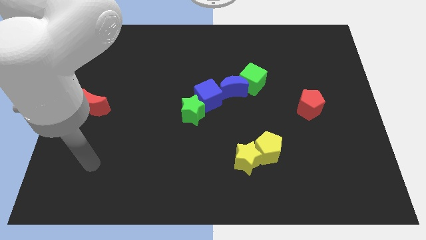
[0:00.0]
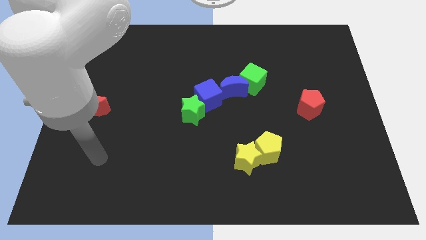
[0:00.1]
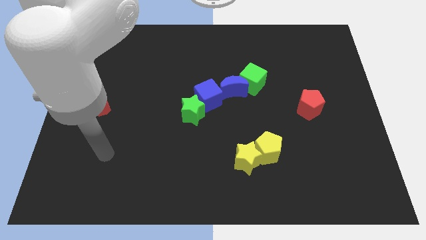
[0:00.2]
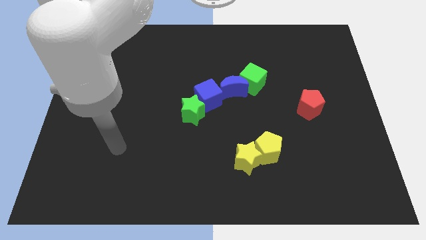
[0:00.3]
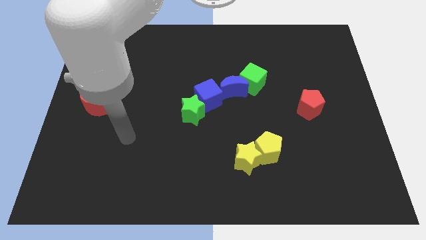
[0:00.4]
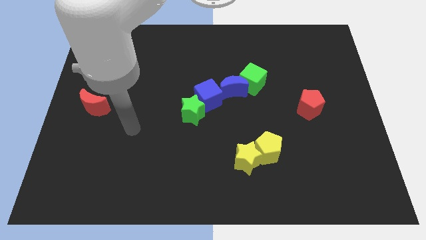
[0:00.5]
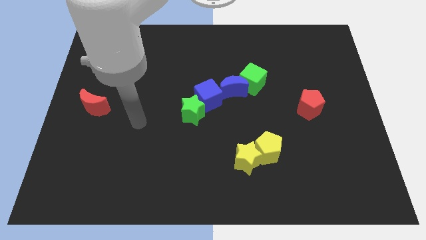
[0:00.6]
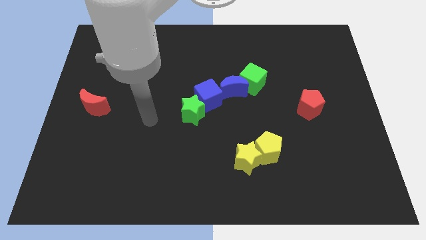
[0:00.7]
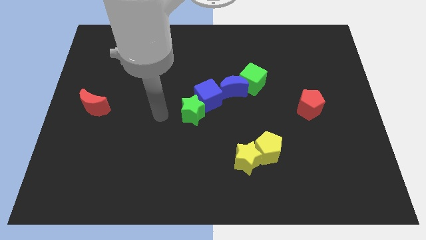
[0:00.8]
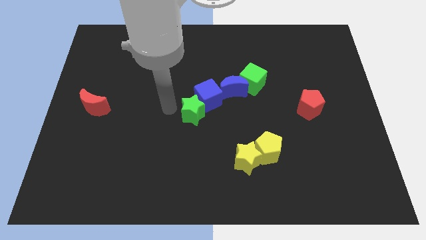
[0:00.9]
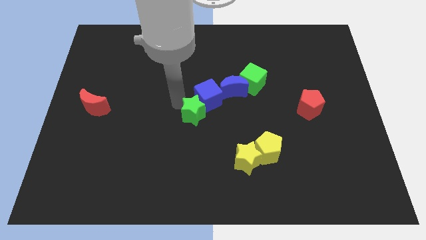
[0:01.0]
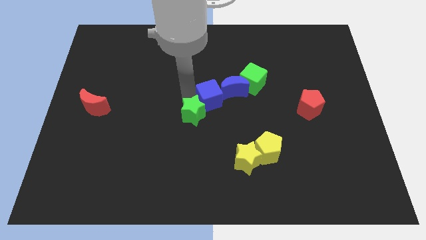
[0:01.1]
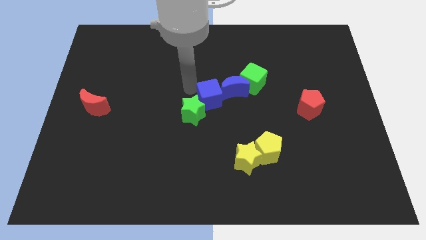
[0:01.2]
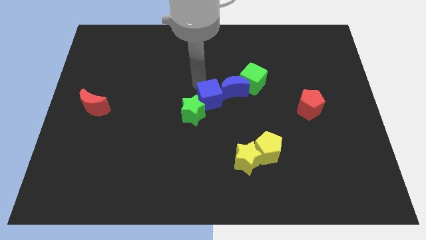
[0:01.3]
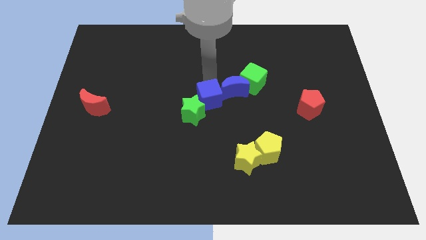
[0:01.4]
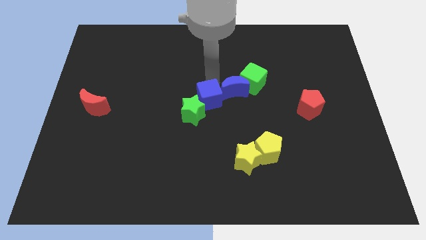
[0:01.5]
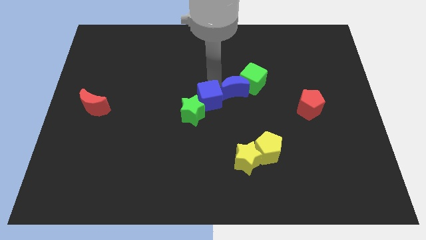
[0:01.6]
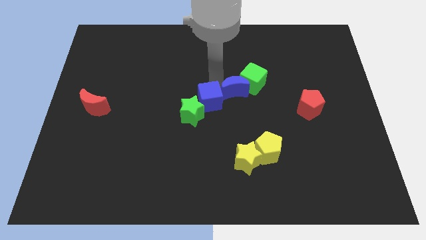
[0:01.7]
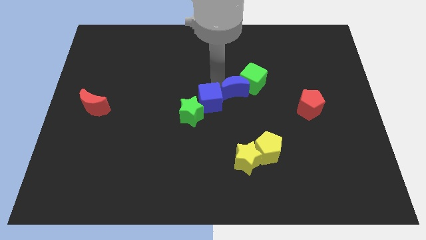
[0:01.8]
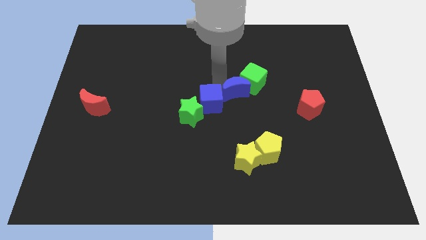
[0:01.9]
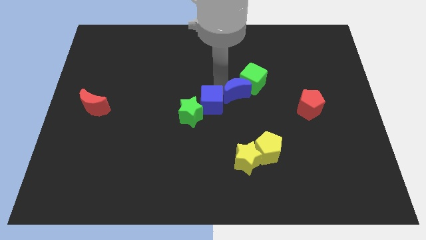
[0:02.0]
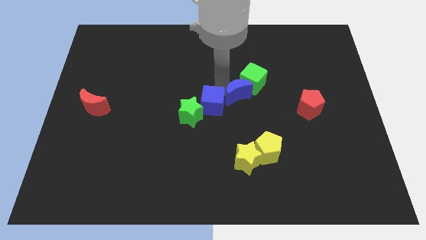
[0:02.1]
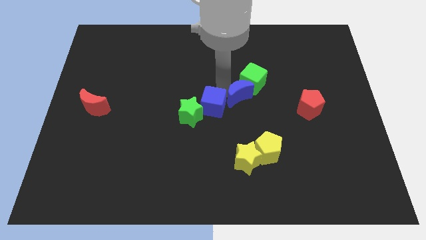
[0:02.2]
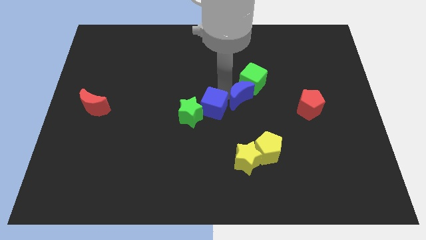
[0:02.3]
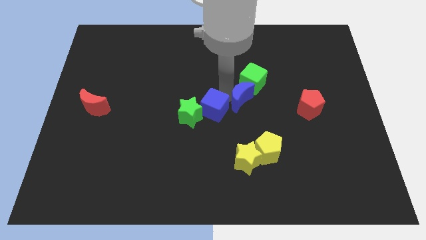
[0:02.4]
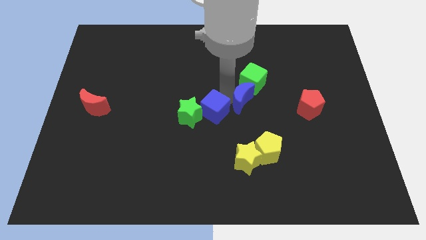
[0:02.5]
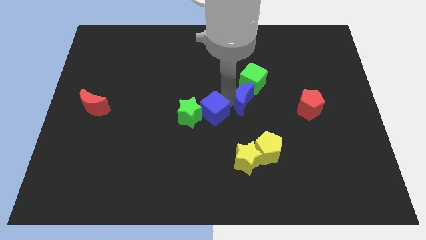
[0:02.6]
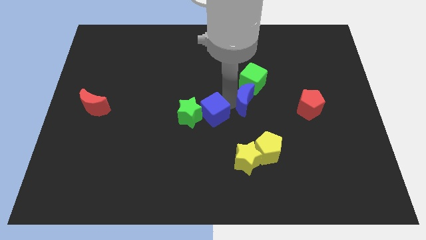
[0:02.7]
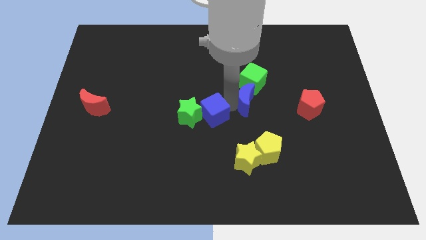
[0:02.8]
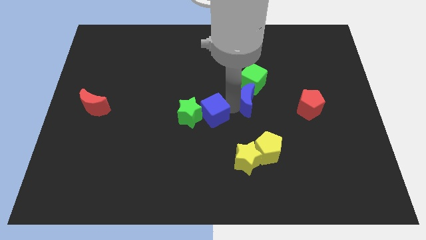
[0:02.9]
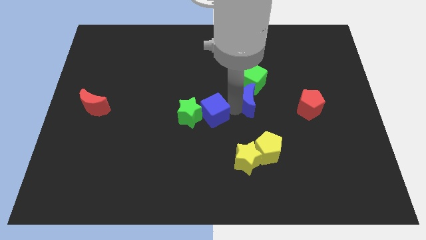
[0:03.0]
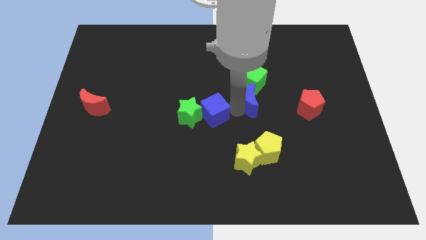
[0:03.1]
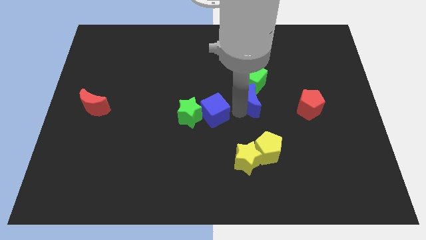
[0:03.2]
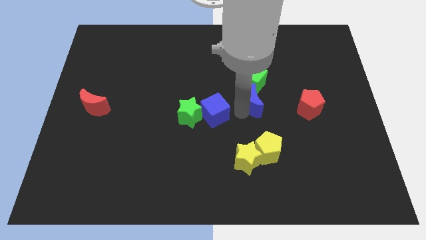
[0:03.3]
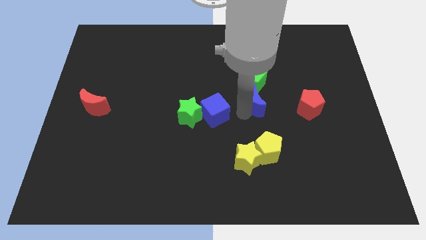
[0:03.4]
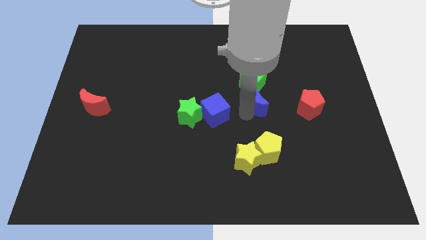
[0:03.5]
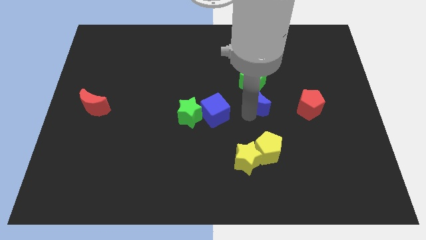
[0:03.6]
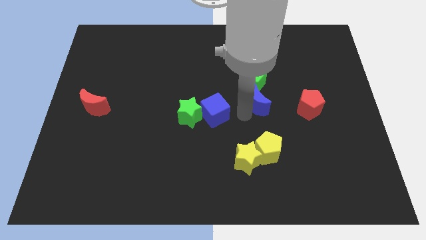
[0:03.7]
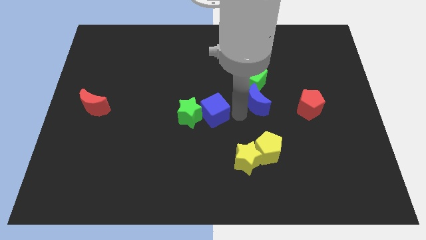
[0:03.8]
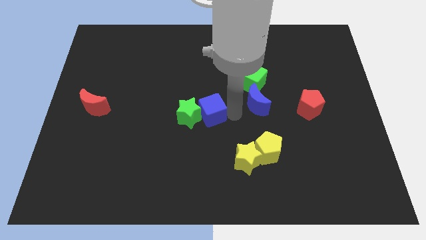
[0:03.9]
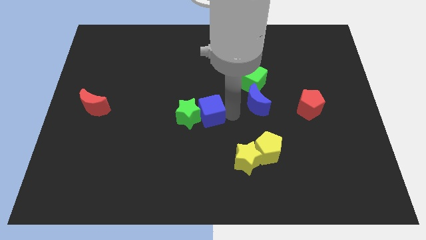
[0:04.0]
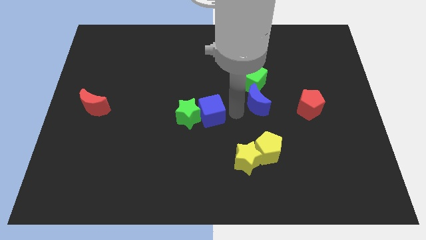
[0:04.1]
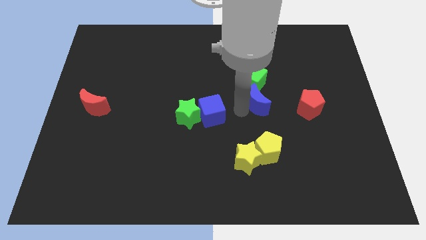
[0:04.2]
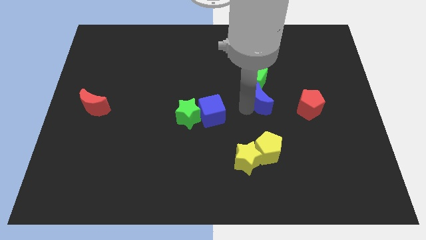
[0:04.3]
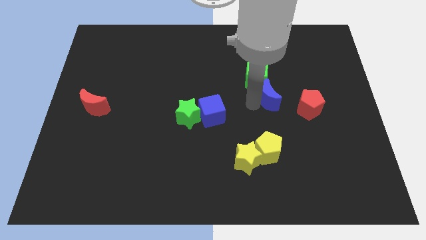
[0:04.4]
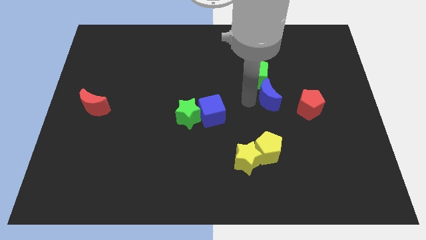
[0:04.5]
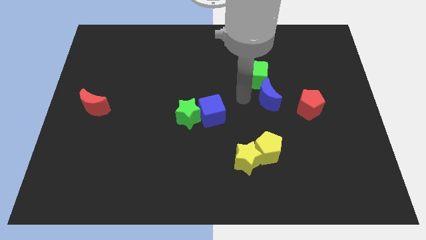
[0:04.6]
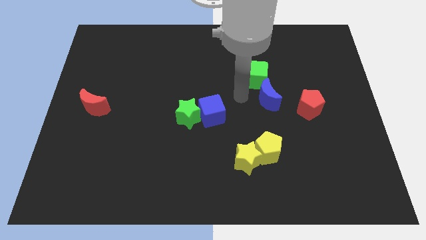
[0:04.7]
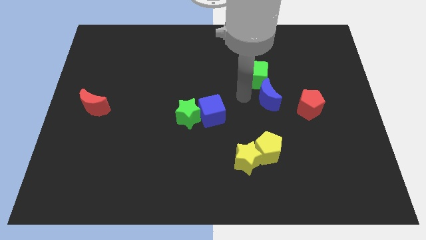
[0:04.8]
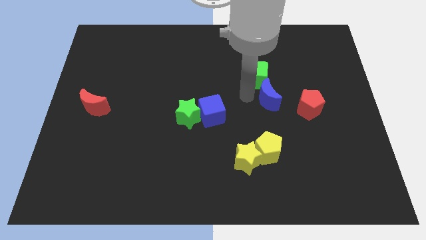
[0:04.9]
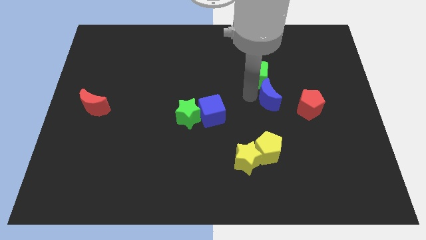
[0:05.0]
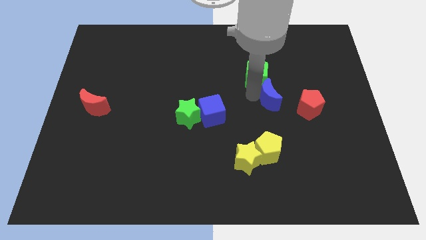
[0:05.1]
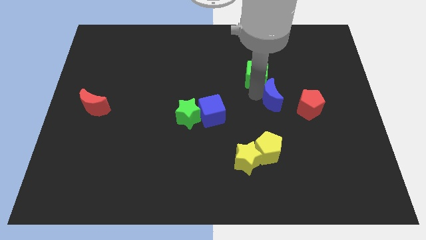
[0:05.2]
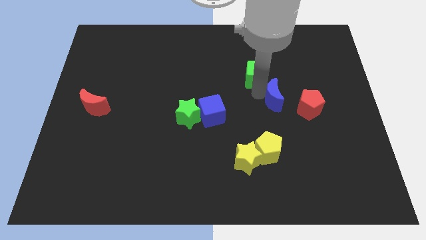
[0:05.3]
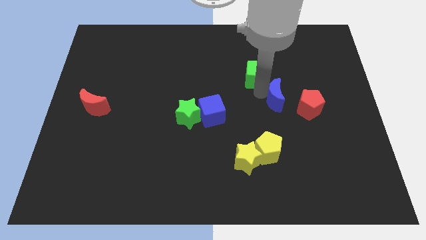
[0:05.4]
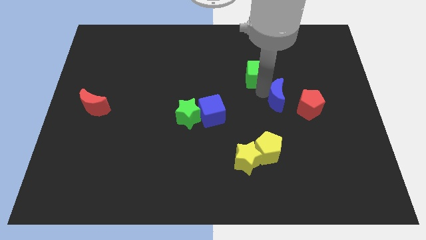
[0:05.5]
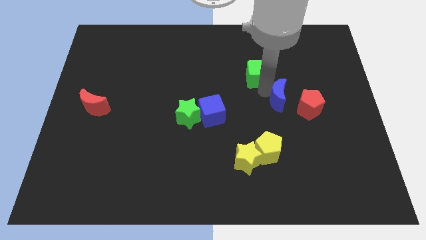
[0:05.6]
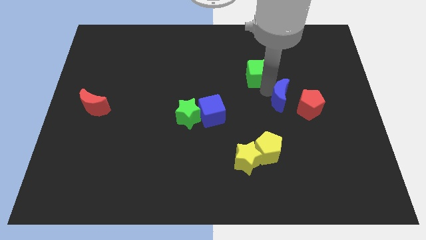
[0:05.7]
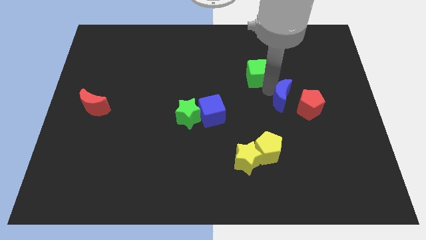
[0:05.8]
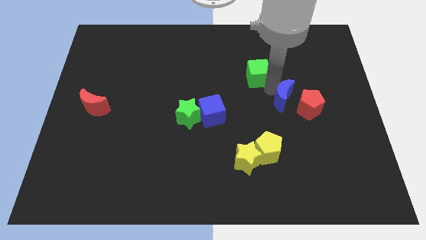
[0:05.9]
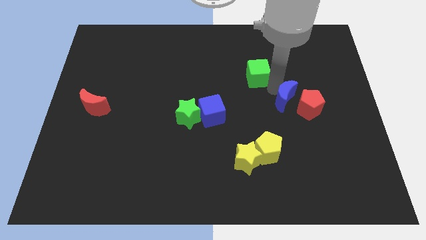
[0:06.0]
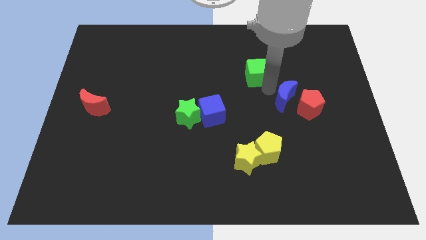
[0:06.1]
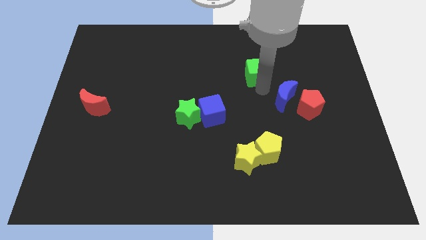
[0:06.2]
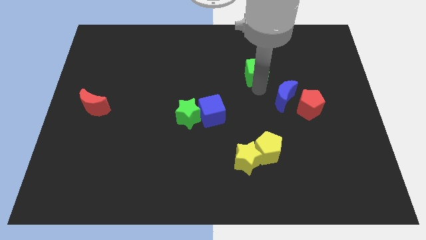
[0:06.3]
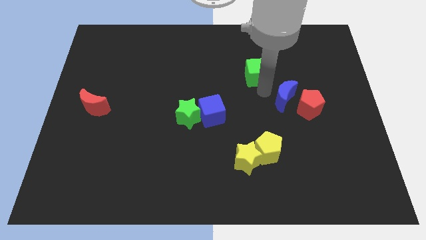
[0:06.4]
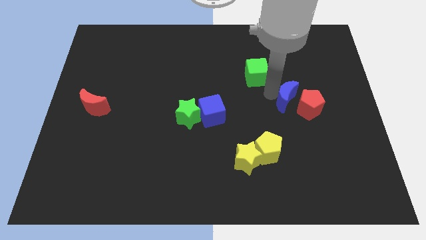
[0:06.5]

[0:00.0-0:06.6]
slide the blue moon close to the red pentagon

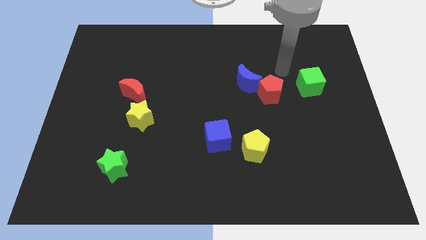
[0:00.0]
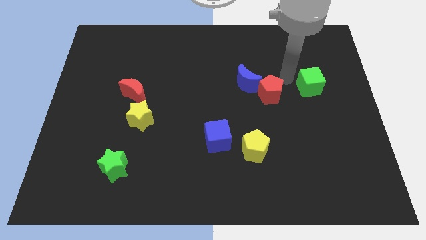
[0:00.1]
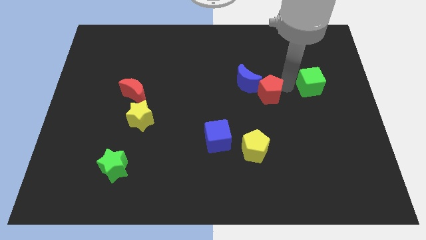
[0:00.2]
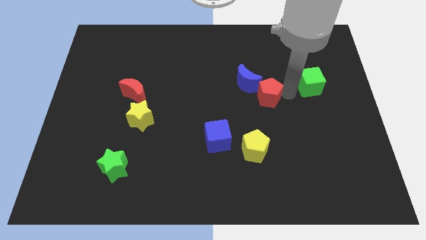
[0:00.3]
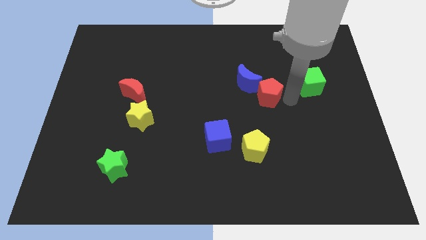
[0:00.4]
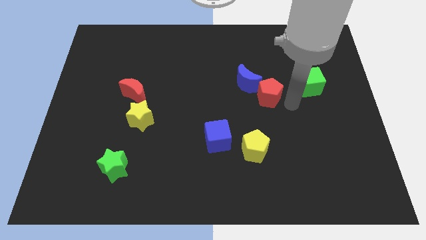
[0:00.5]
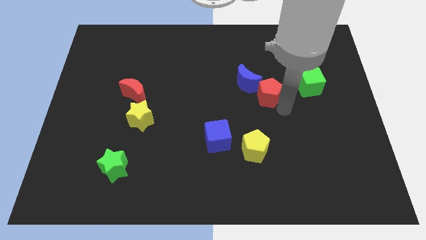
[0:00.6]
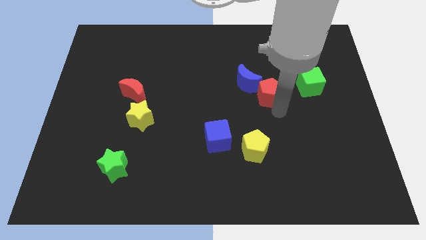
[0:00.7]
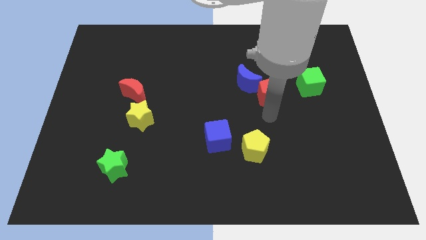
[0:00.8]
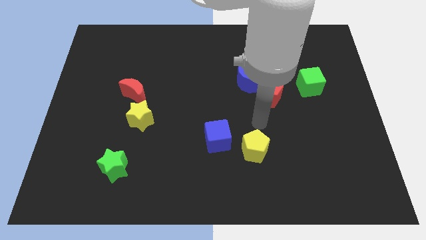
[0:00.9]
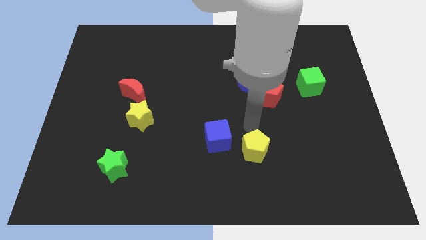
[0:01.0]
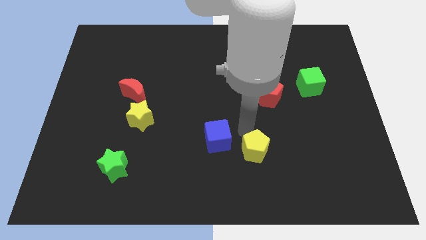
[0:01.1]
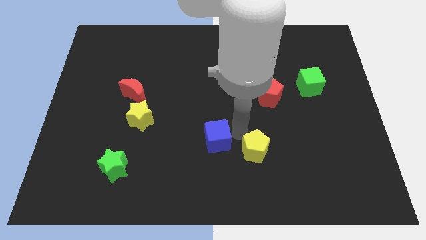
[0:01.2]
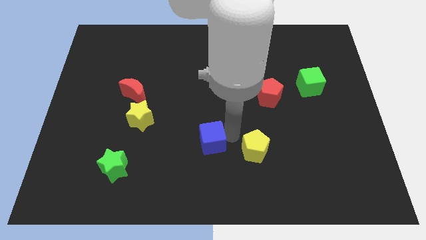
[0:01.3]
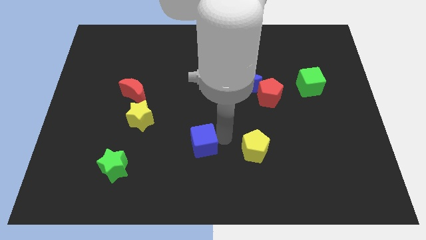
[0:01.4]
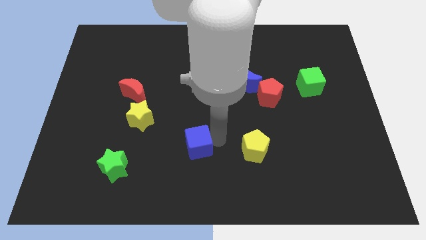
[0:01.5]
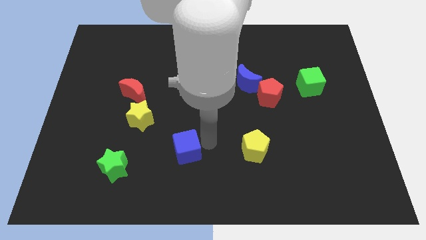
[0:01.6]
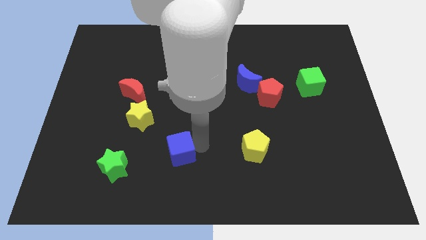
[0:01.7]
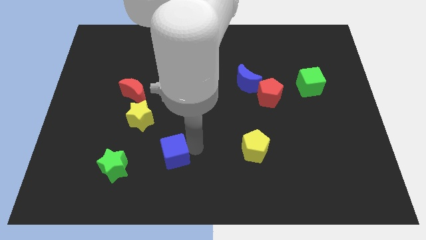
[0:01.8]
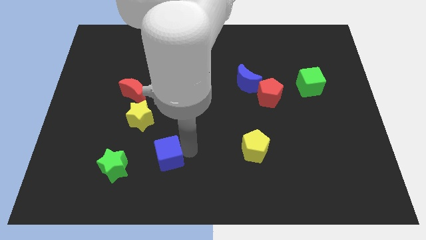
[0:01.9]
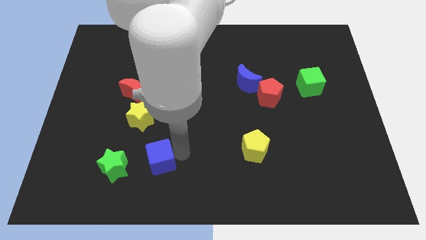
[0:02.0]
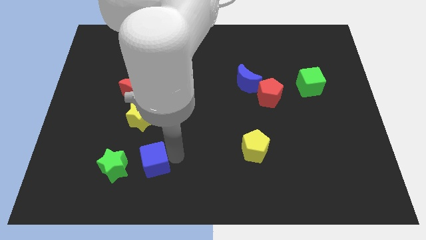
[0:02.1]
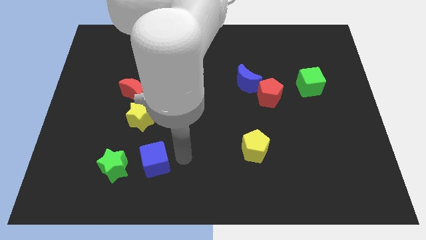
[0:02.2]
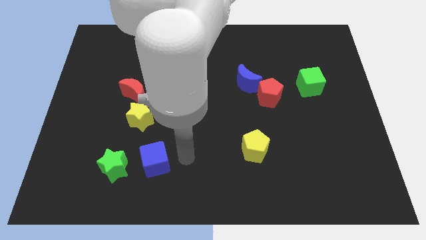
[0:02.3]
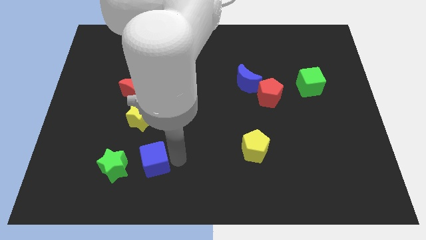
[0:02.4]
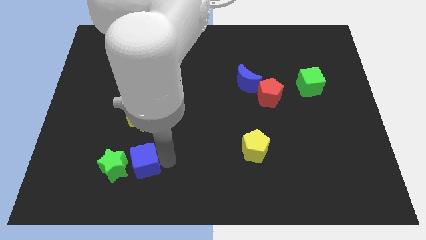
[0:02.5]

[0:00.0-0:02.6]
put the blue cube close to the green star
